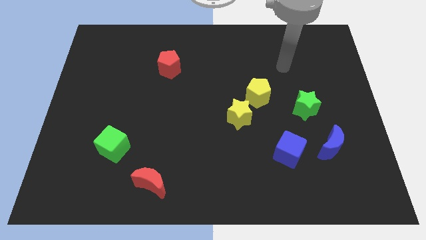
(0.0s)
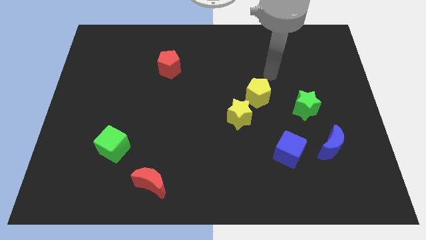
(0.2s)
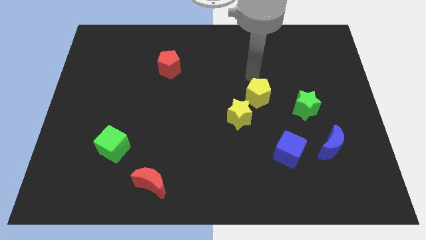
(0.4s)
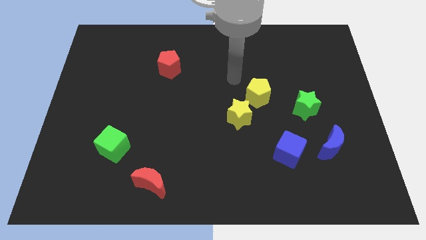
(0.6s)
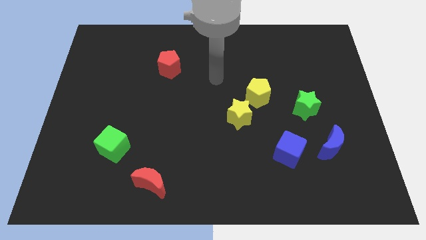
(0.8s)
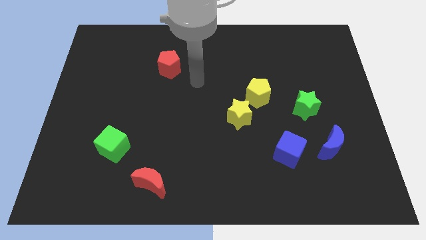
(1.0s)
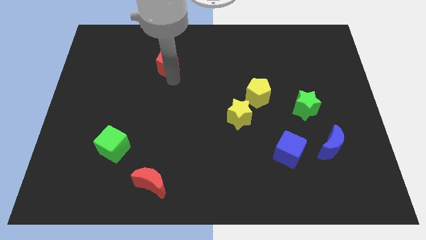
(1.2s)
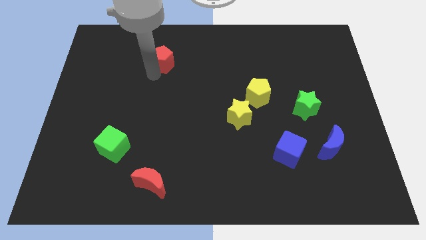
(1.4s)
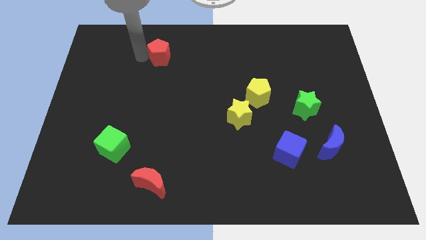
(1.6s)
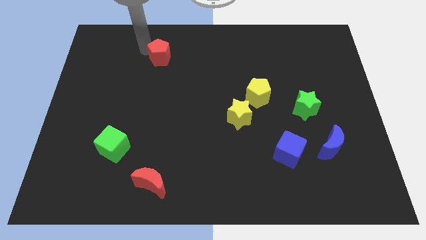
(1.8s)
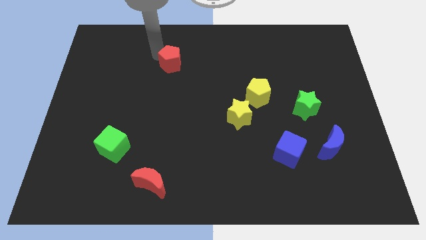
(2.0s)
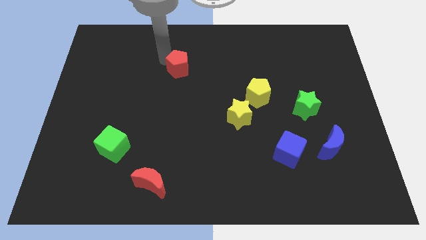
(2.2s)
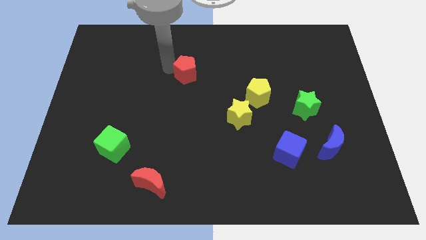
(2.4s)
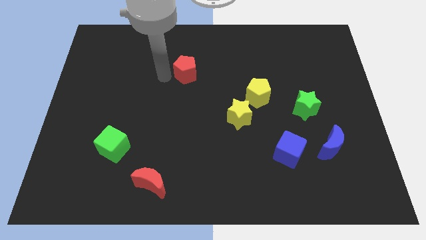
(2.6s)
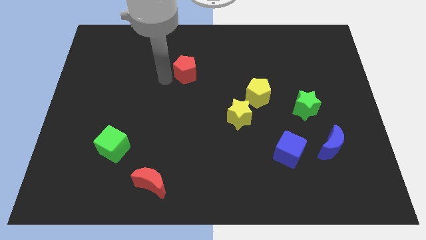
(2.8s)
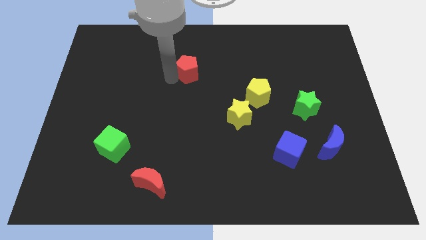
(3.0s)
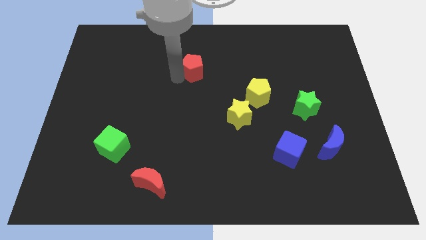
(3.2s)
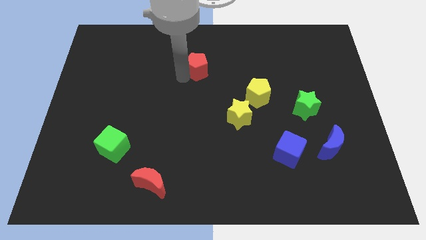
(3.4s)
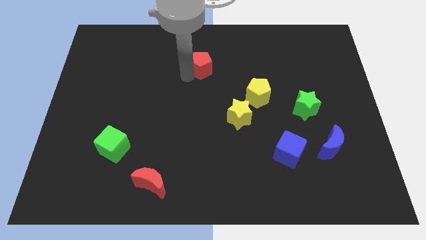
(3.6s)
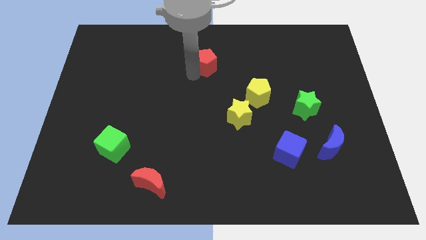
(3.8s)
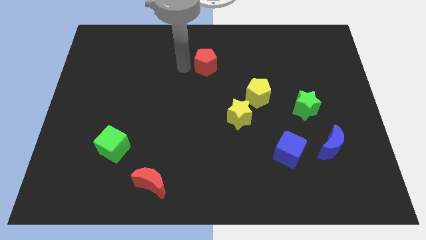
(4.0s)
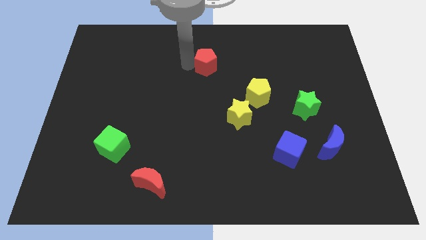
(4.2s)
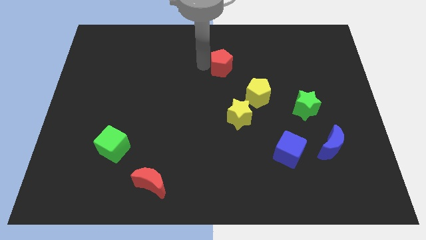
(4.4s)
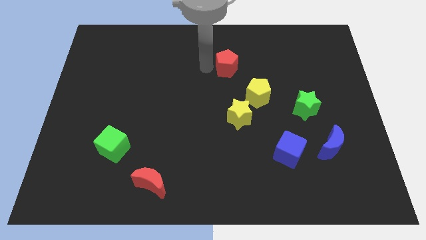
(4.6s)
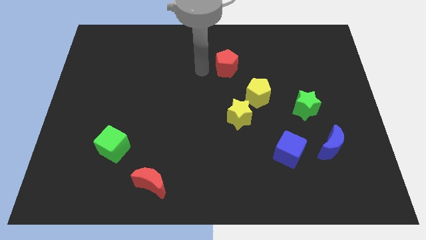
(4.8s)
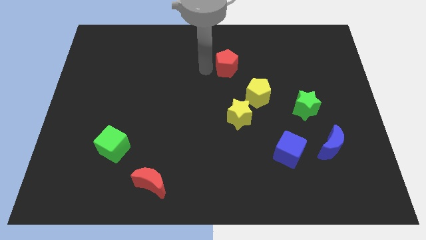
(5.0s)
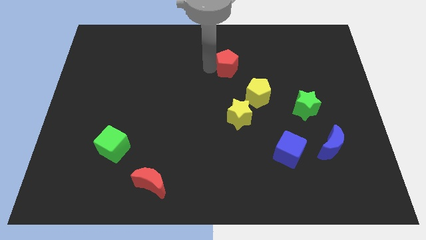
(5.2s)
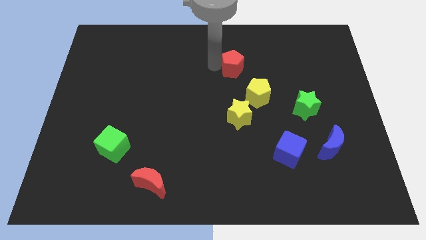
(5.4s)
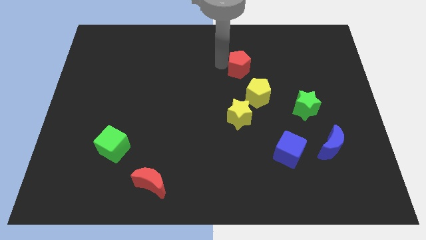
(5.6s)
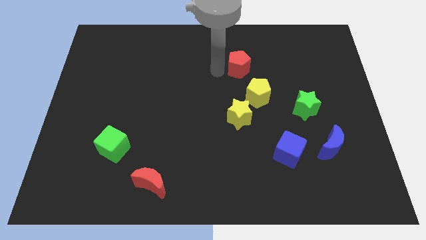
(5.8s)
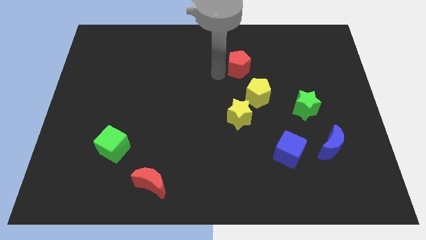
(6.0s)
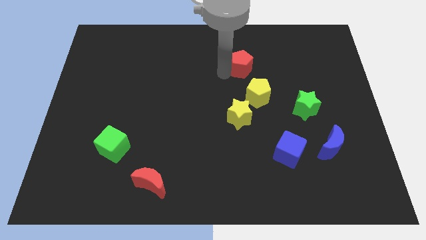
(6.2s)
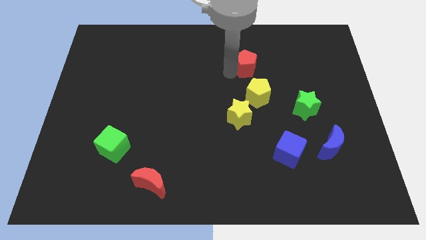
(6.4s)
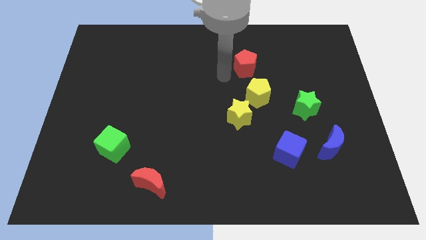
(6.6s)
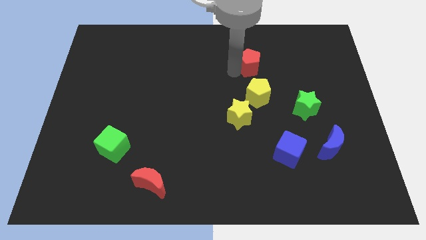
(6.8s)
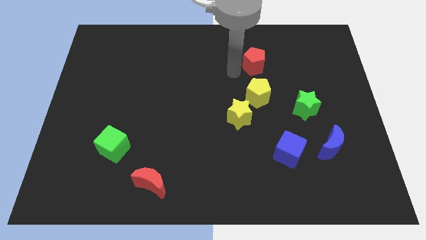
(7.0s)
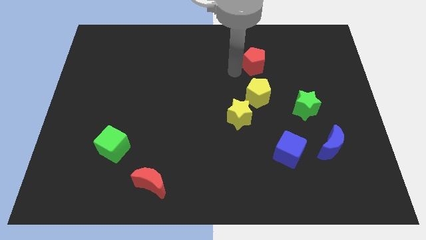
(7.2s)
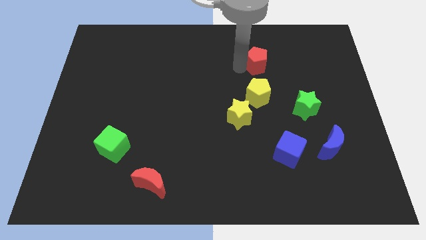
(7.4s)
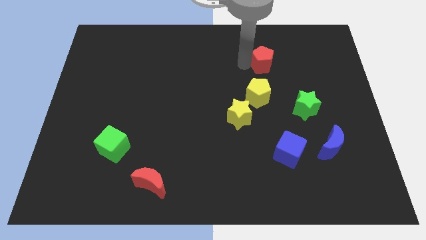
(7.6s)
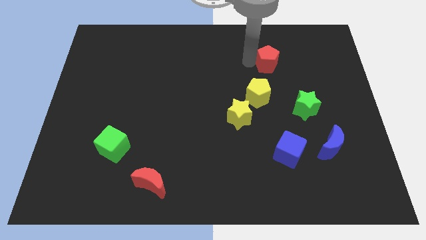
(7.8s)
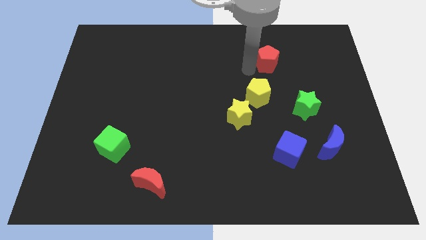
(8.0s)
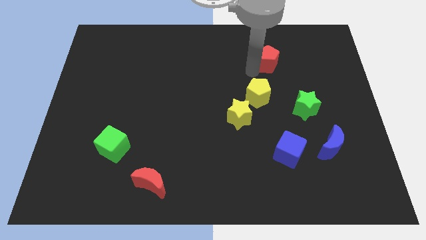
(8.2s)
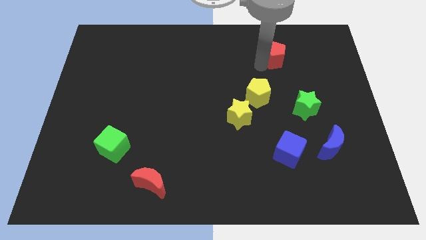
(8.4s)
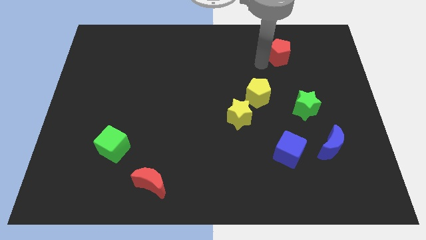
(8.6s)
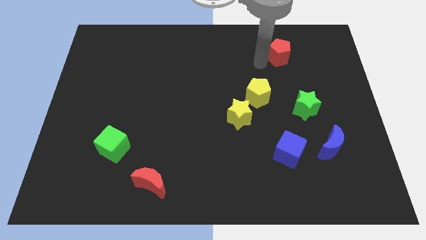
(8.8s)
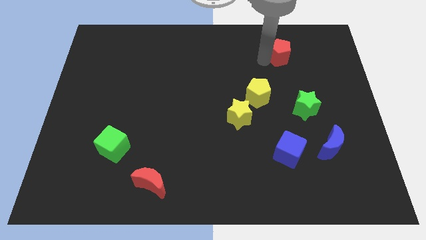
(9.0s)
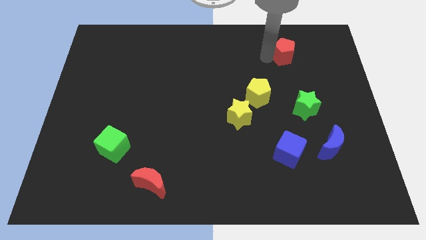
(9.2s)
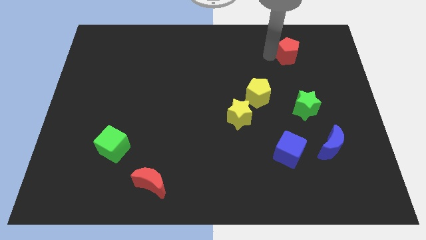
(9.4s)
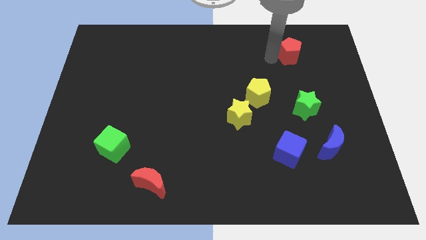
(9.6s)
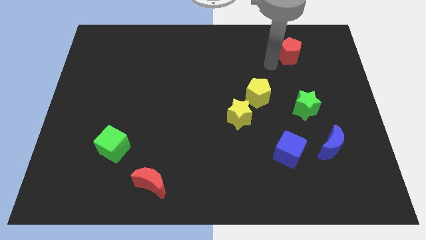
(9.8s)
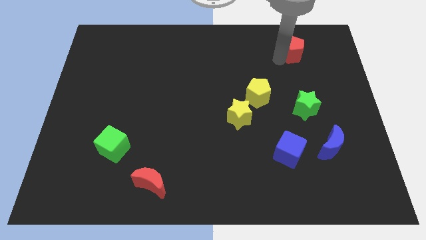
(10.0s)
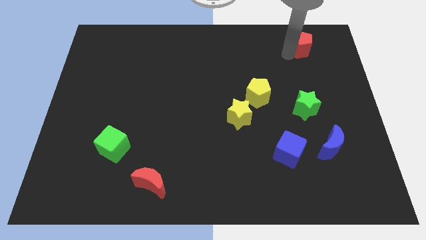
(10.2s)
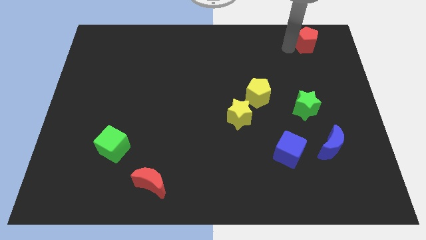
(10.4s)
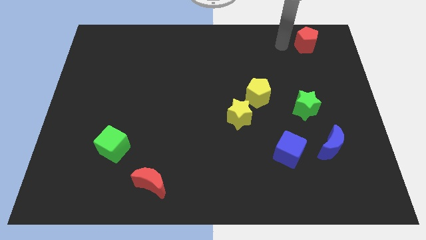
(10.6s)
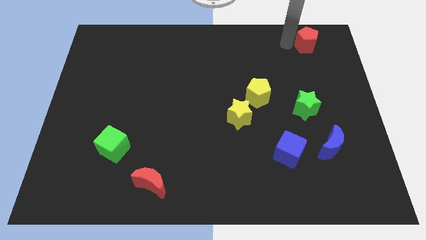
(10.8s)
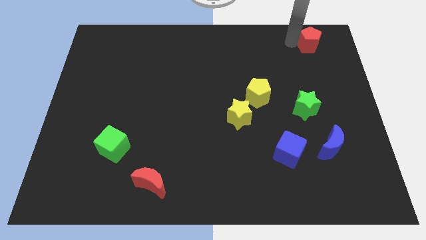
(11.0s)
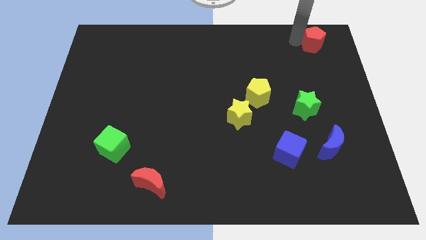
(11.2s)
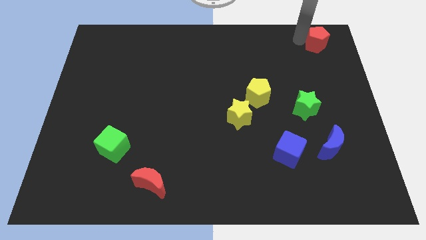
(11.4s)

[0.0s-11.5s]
push the red pentagon to the upper right corner

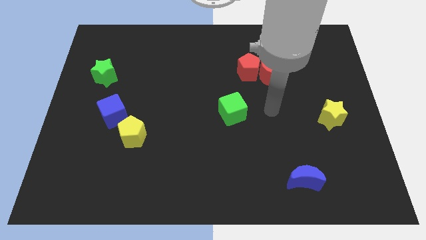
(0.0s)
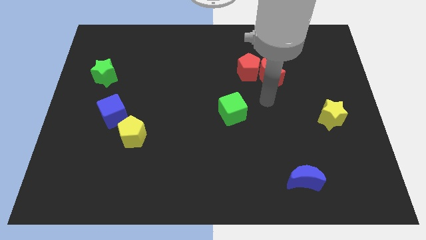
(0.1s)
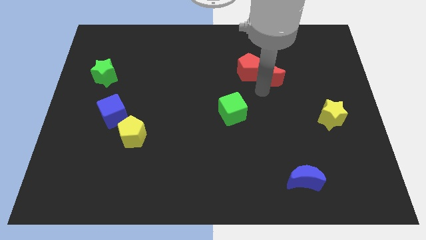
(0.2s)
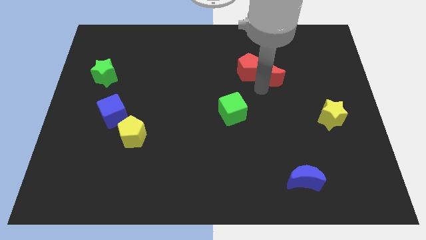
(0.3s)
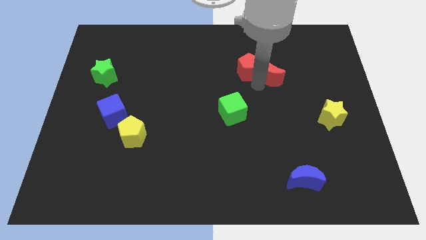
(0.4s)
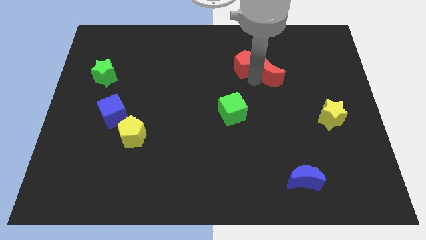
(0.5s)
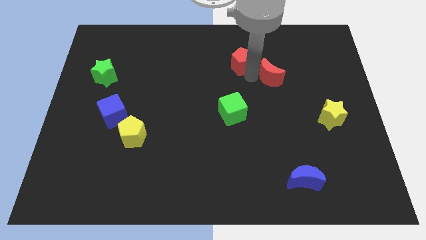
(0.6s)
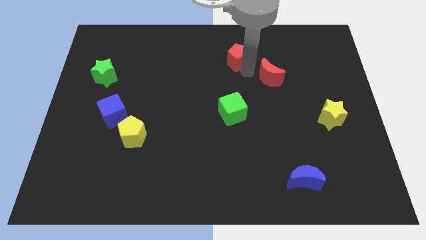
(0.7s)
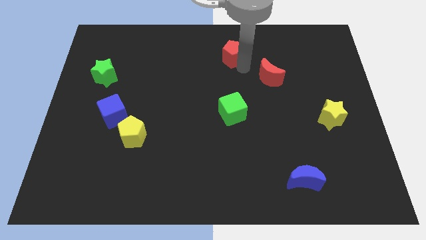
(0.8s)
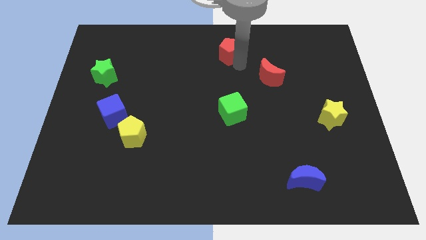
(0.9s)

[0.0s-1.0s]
move the red pentagon to the top

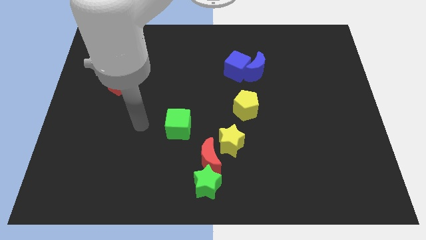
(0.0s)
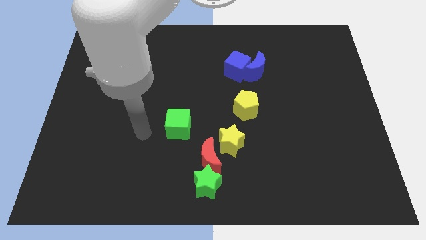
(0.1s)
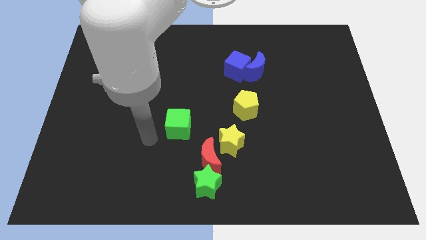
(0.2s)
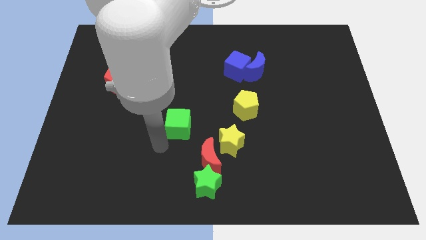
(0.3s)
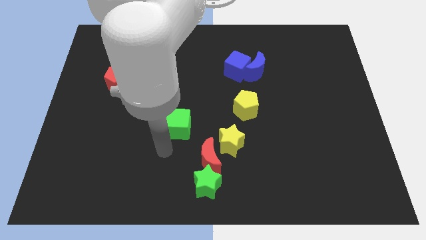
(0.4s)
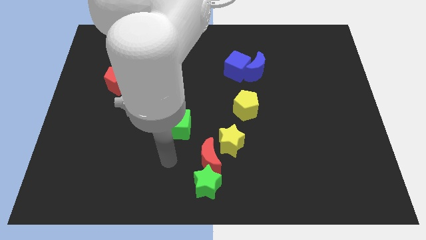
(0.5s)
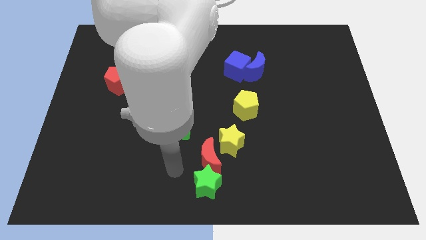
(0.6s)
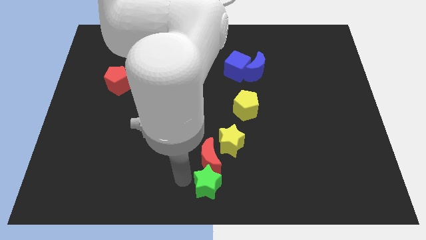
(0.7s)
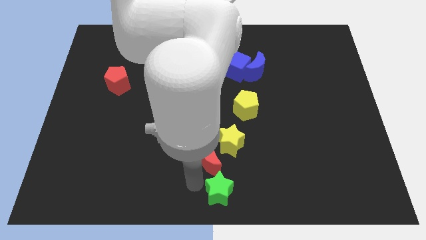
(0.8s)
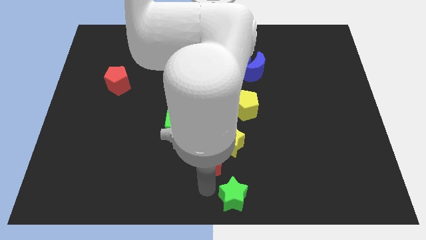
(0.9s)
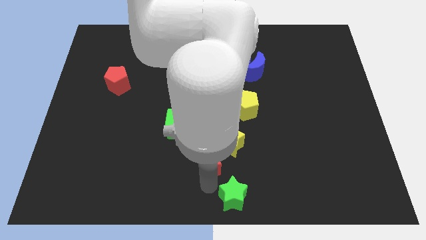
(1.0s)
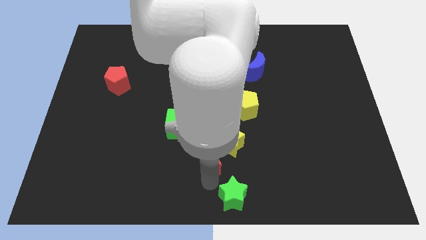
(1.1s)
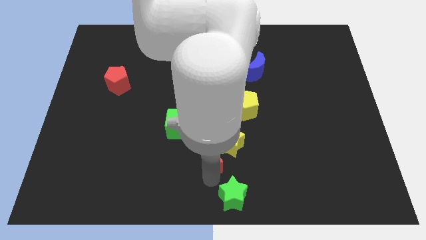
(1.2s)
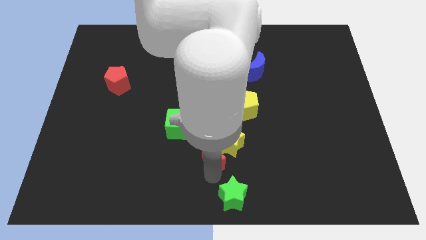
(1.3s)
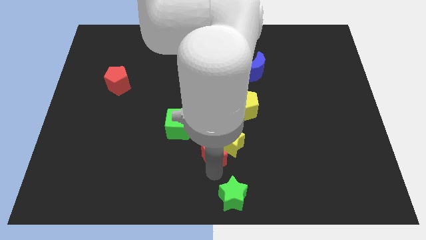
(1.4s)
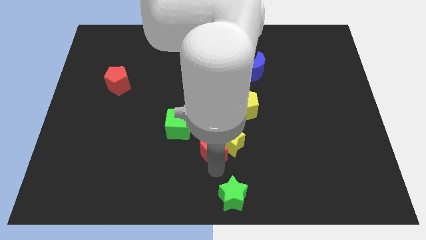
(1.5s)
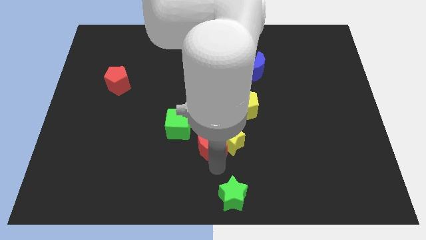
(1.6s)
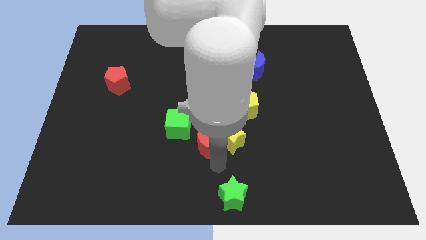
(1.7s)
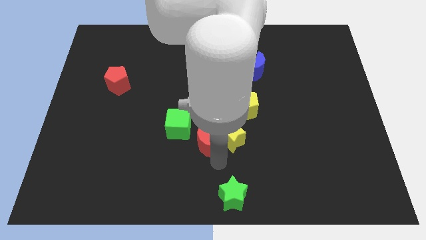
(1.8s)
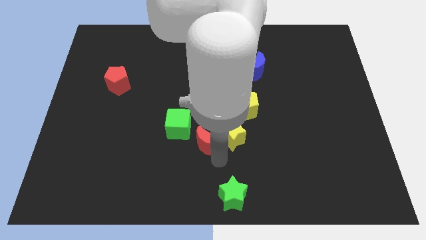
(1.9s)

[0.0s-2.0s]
put the red moon to the middle
